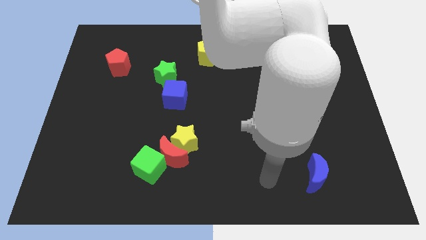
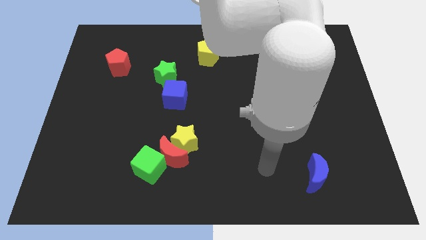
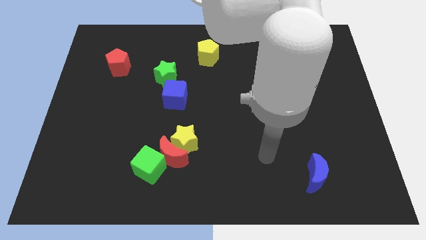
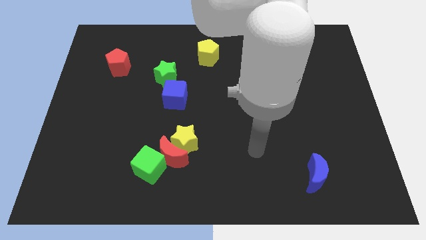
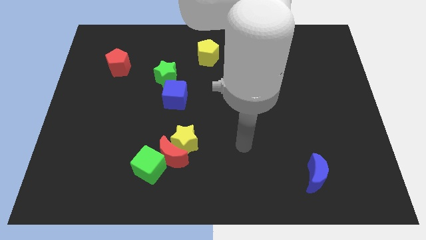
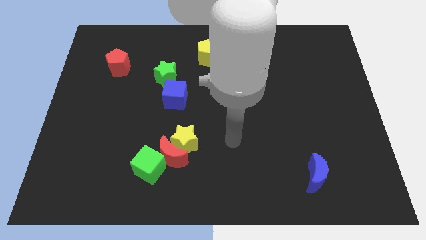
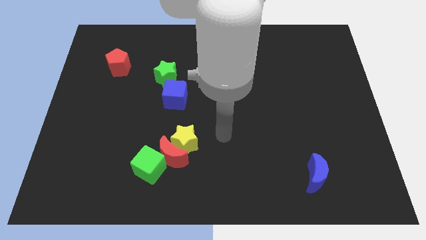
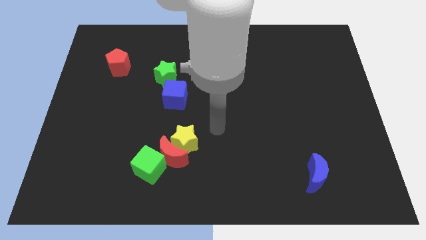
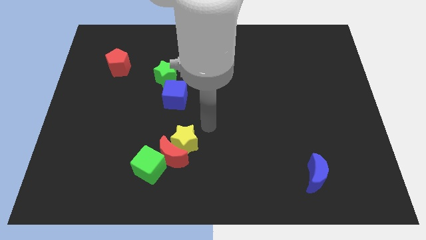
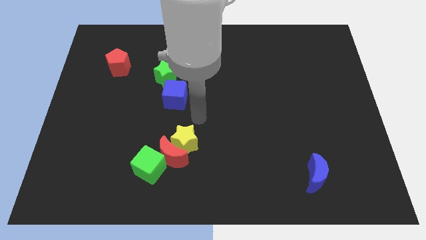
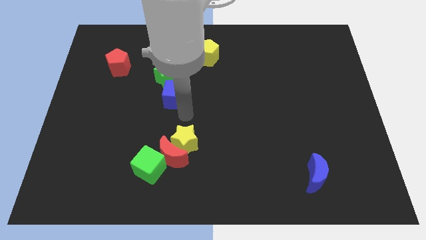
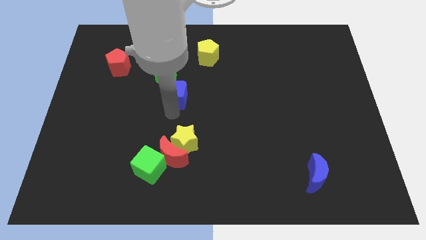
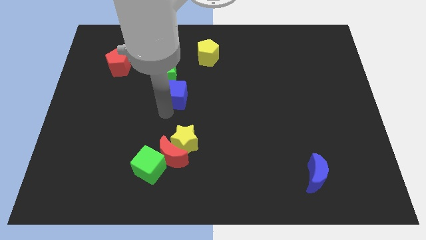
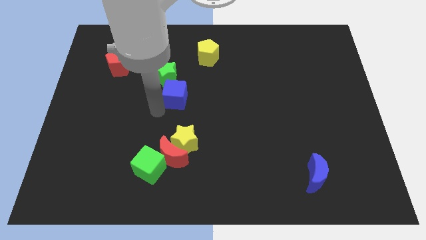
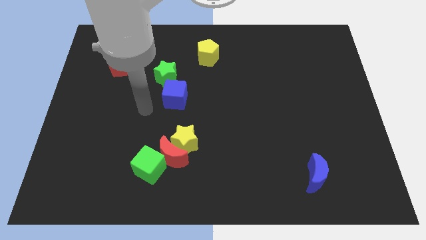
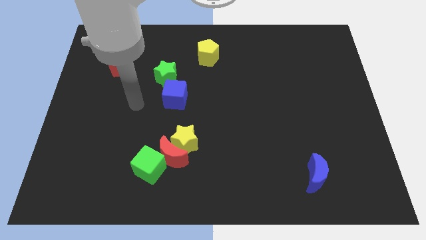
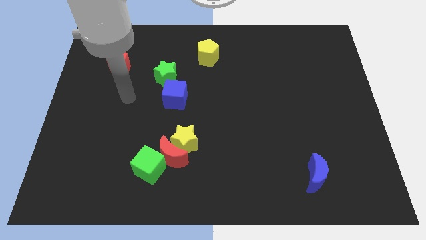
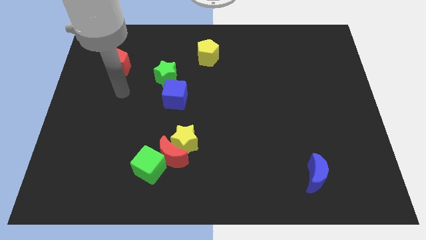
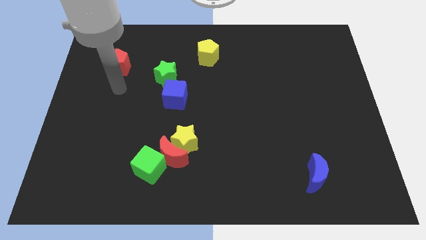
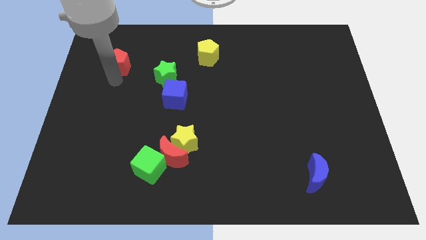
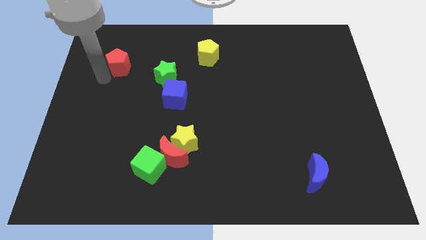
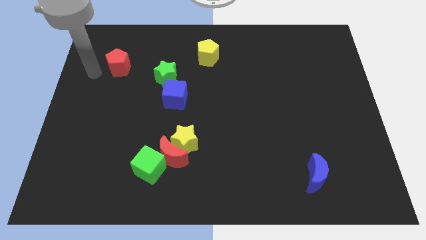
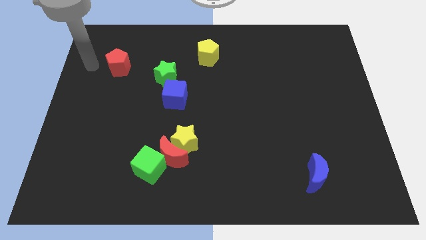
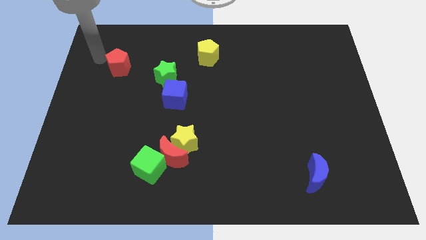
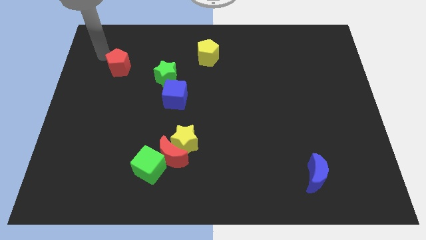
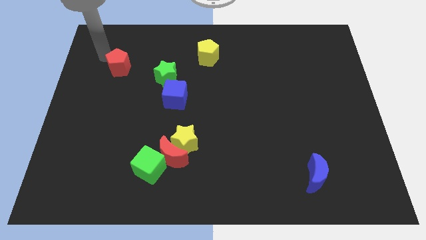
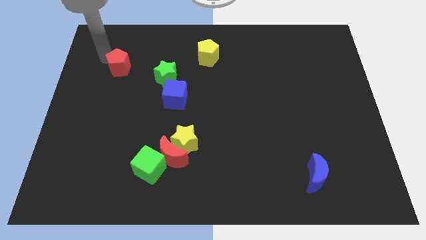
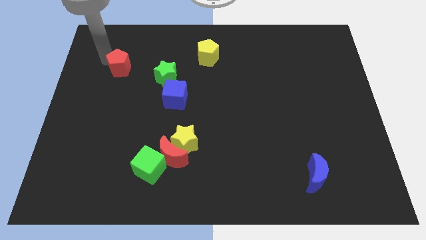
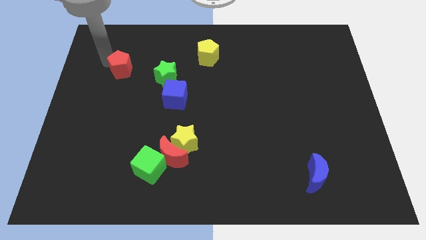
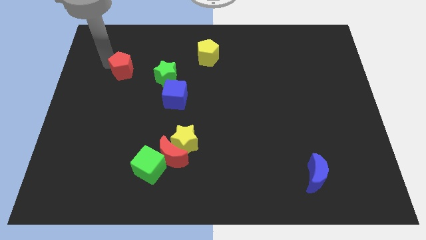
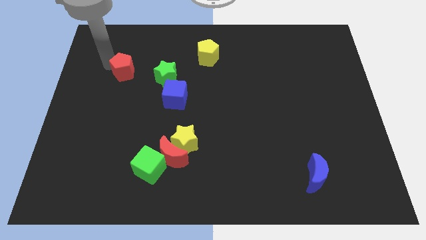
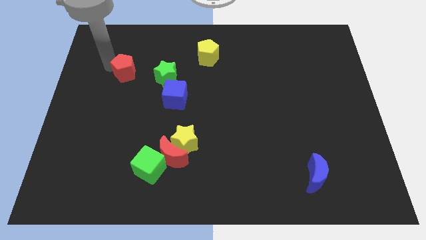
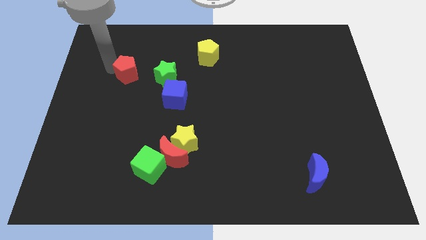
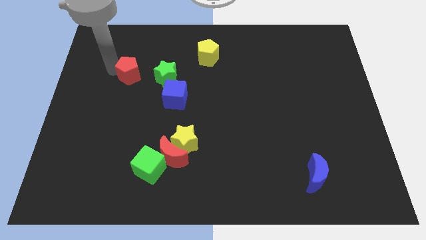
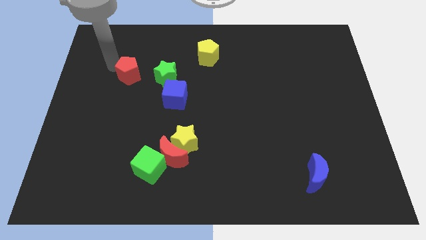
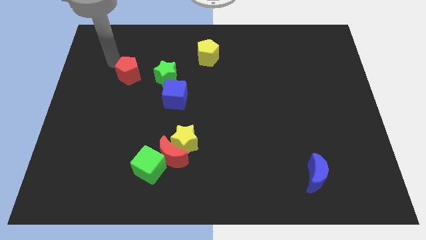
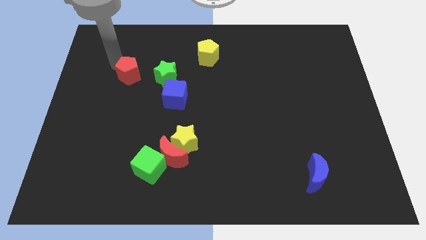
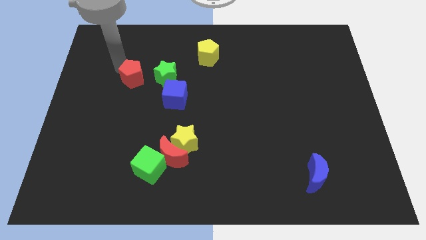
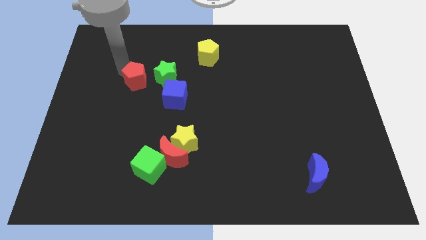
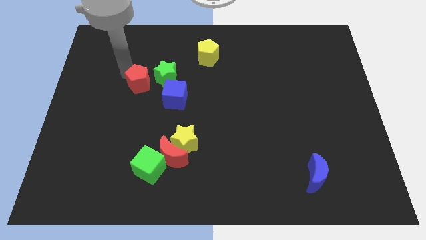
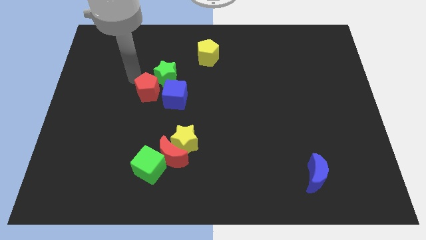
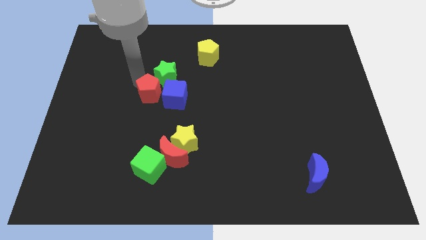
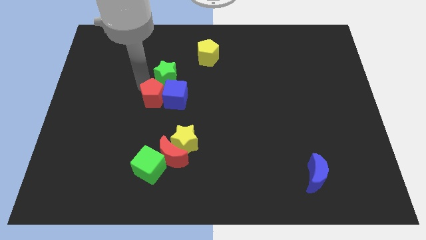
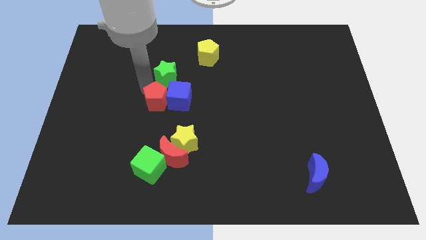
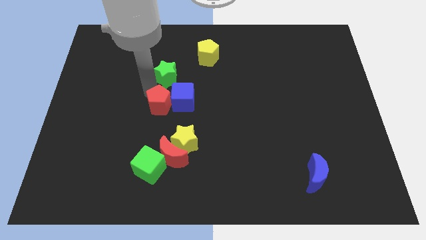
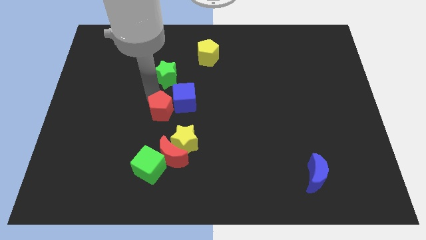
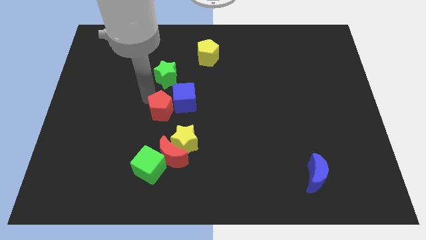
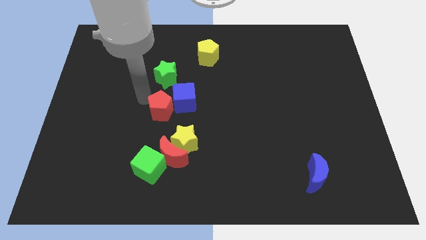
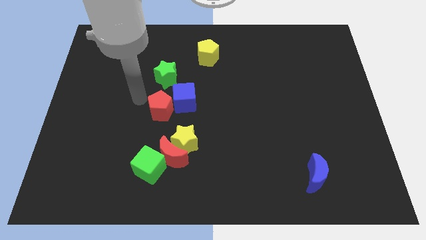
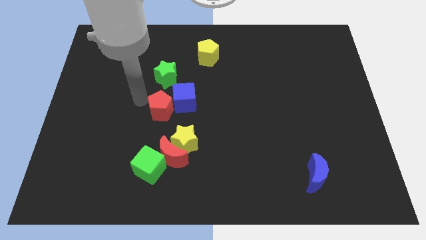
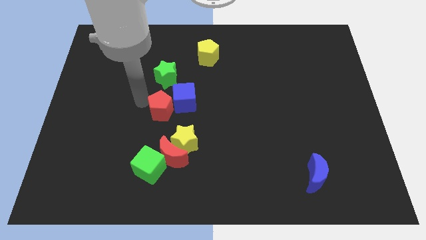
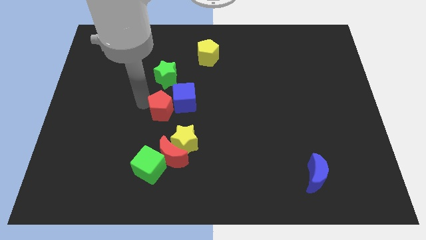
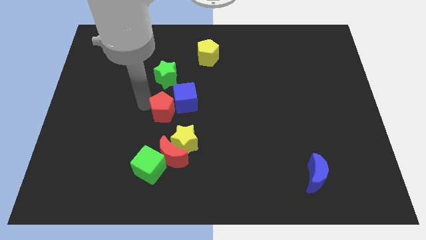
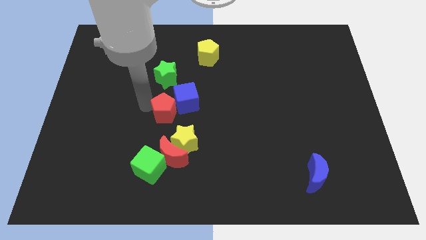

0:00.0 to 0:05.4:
push the red pentagon down and to the right diagonally

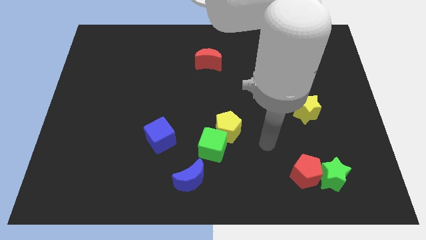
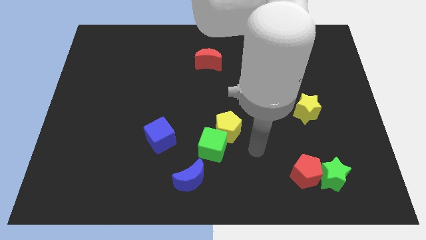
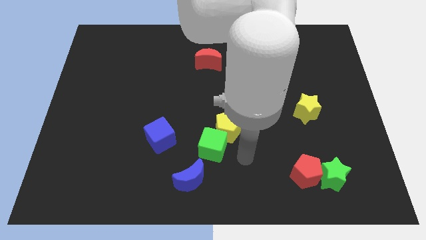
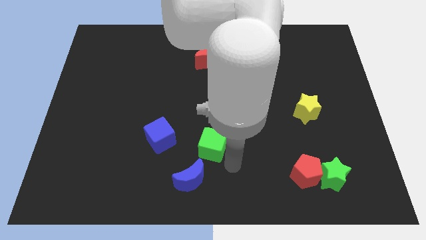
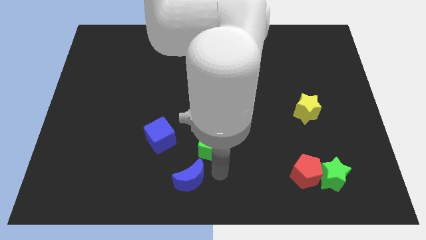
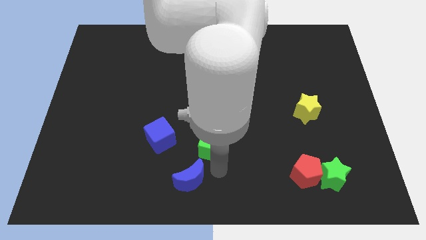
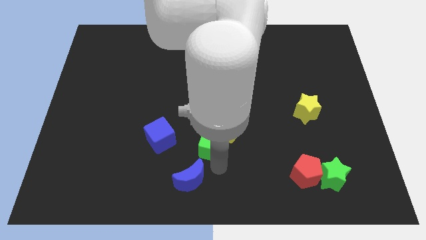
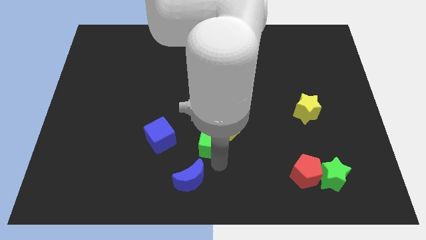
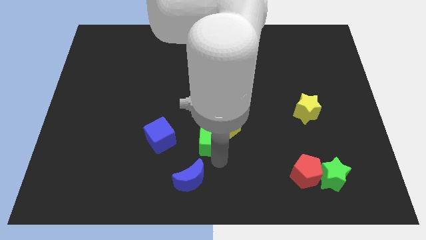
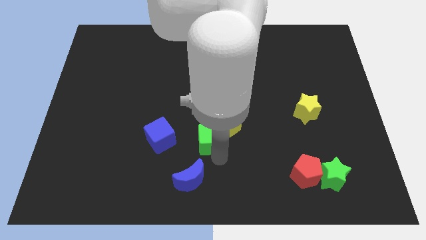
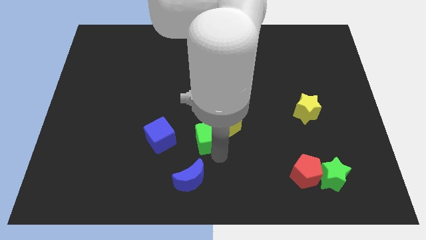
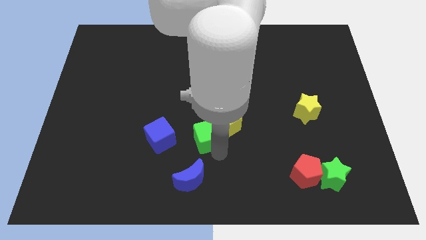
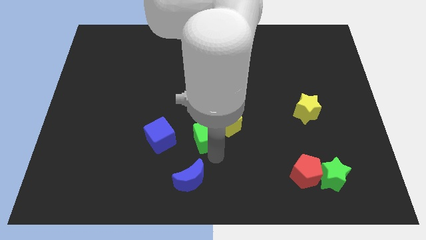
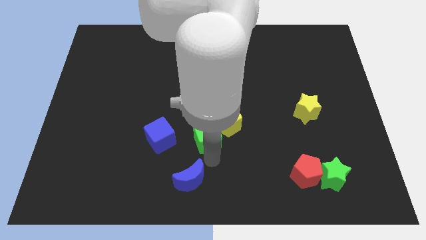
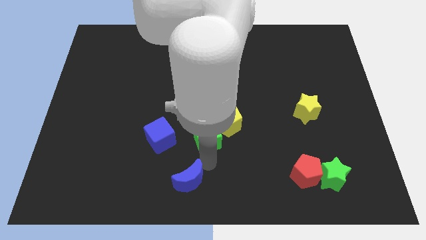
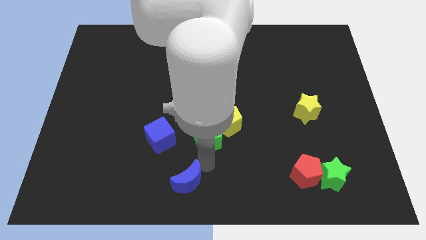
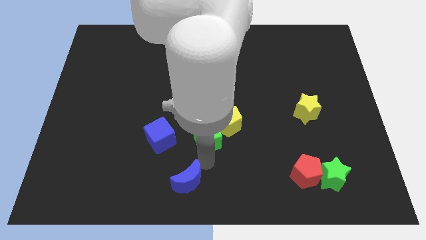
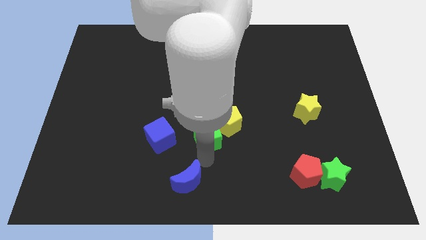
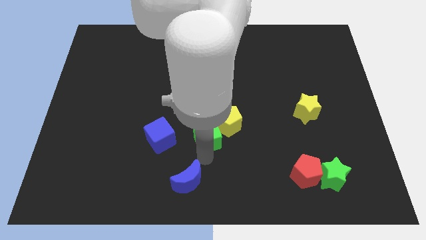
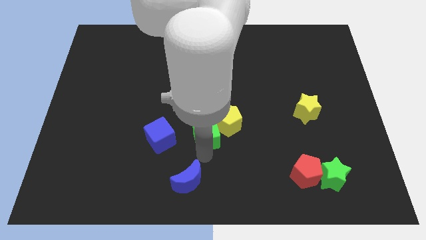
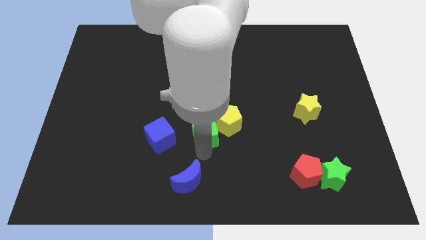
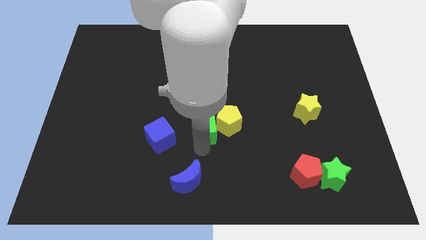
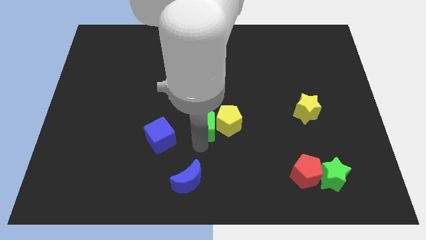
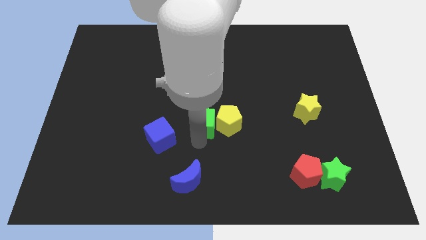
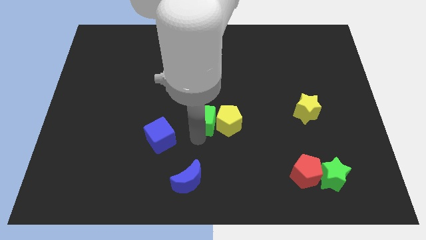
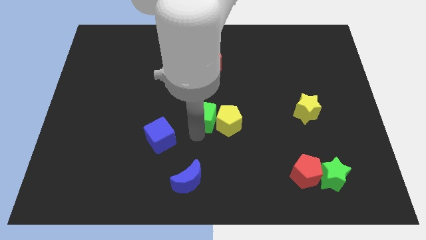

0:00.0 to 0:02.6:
slightly move the green cube up
